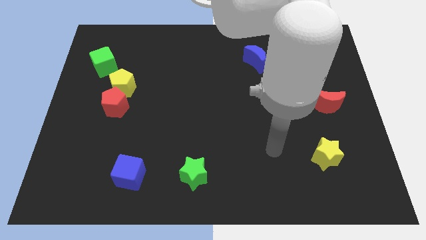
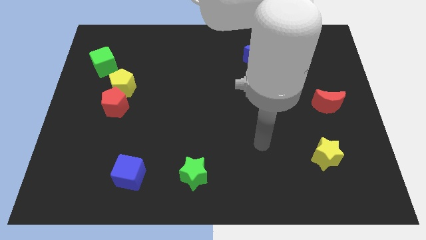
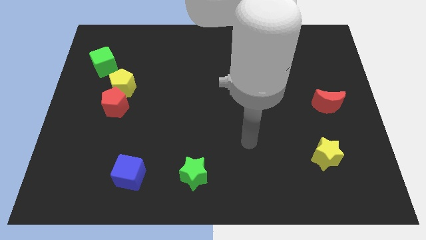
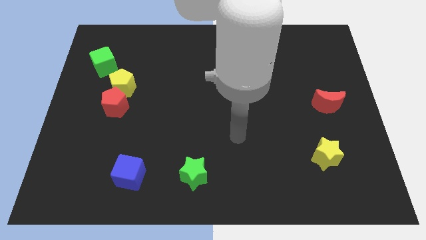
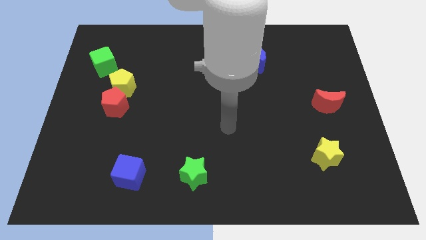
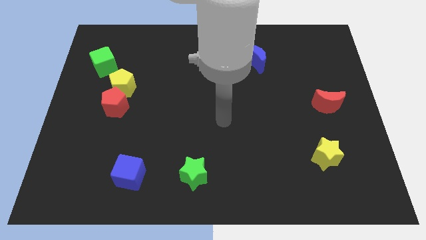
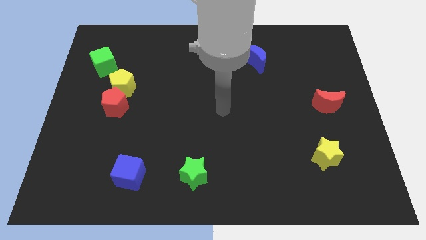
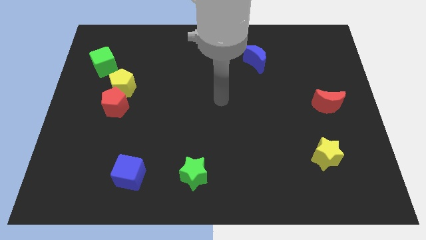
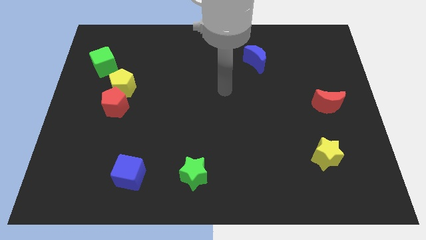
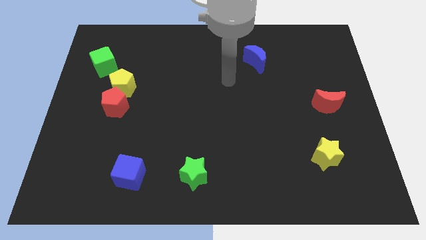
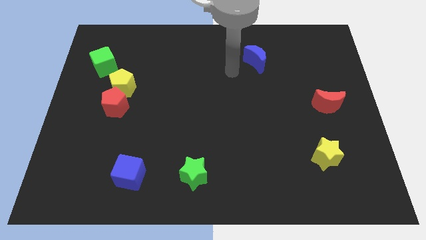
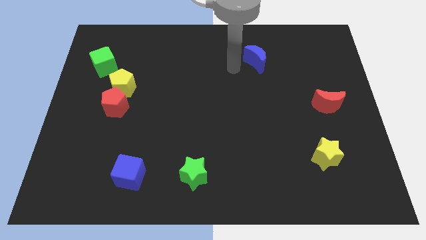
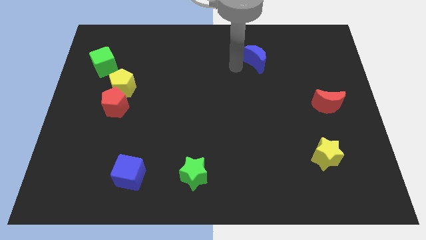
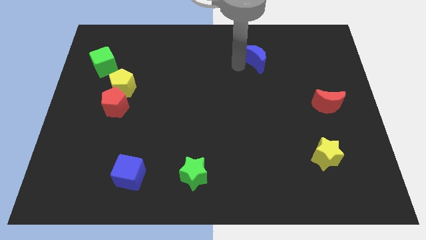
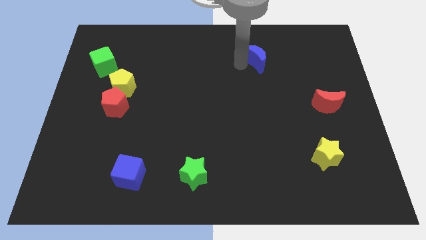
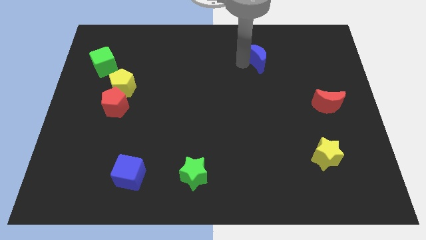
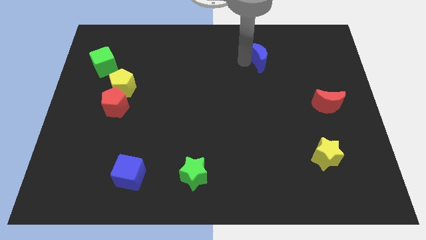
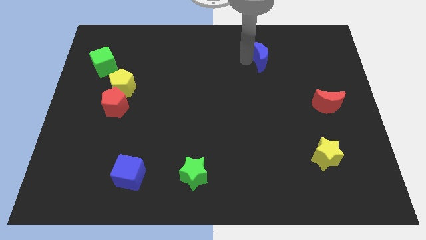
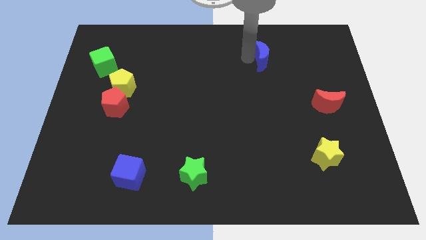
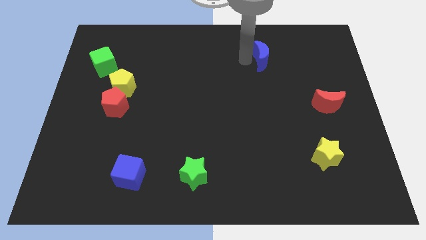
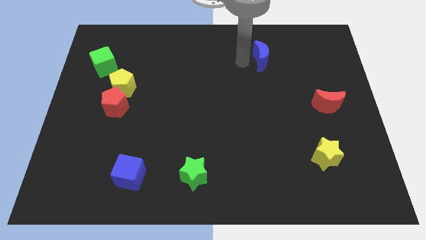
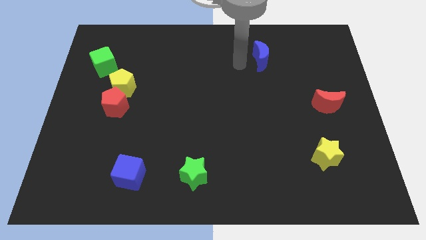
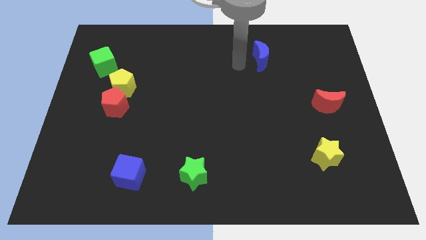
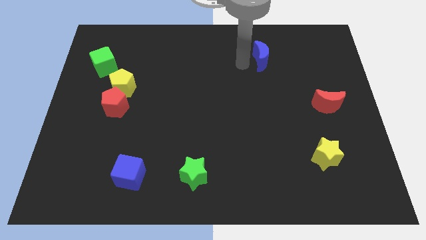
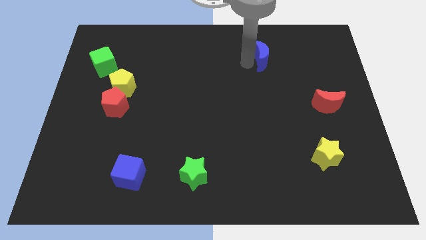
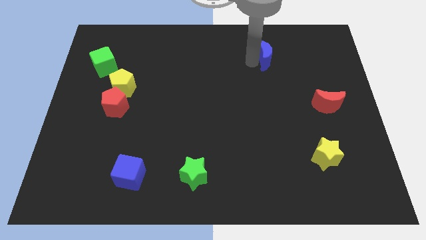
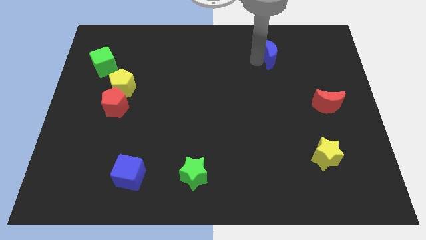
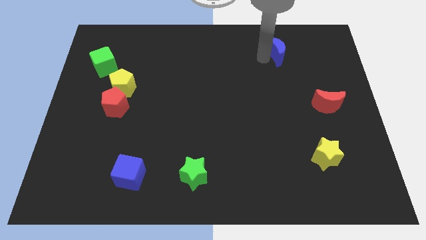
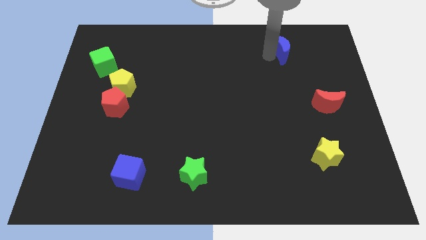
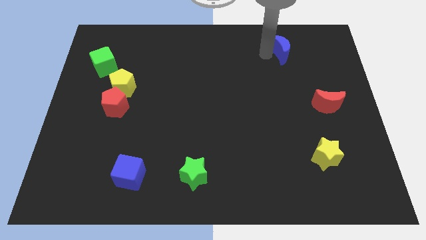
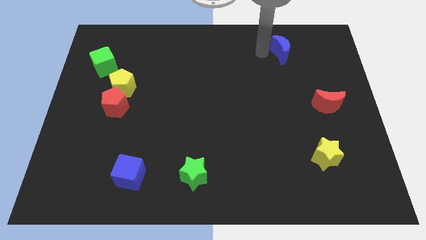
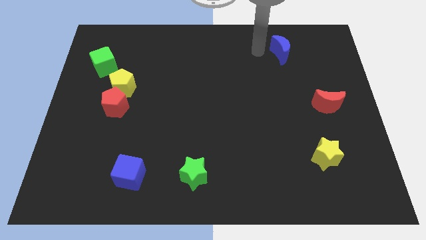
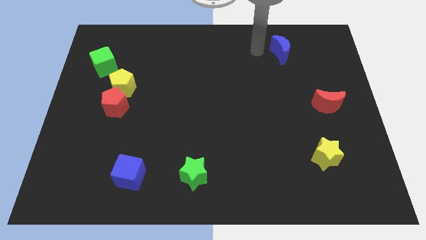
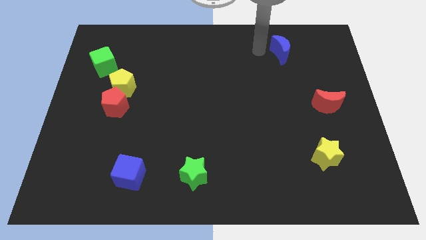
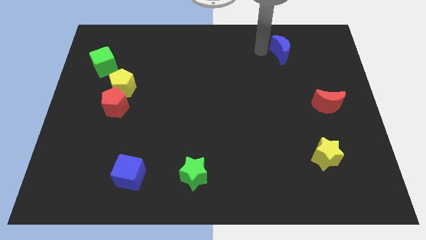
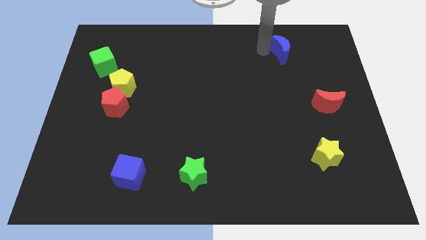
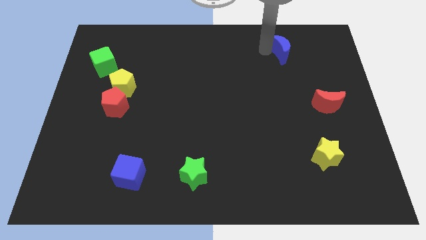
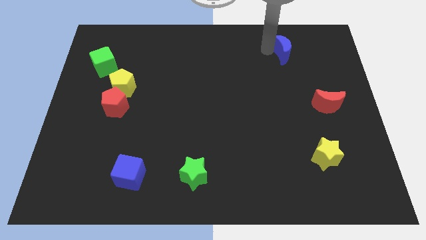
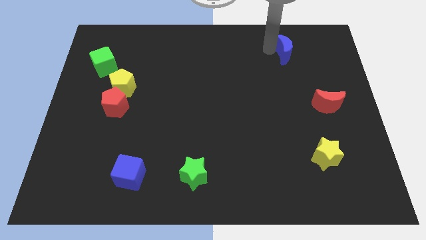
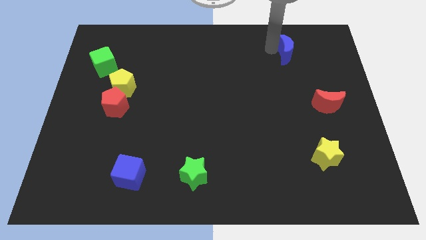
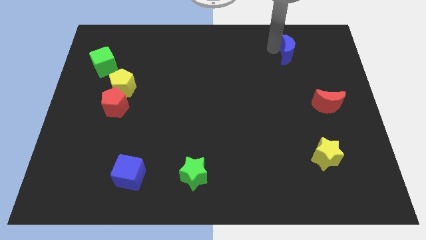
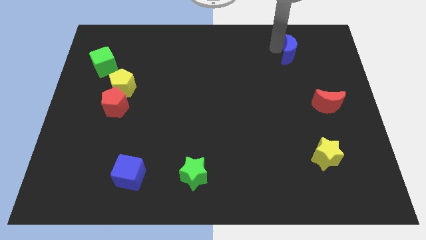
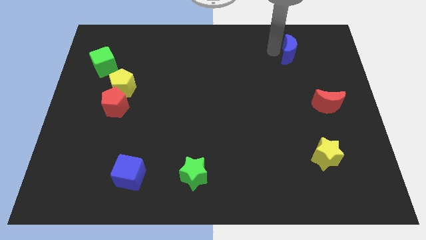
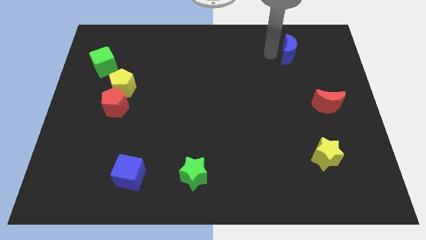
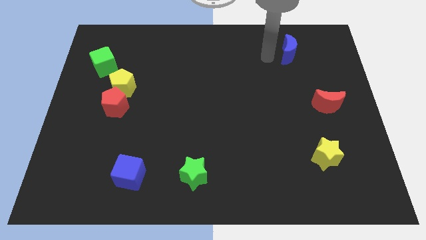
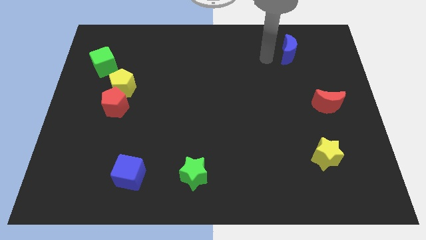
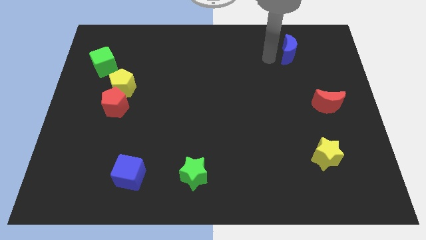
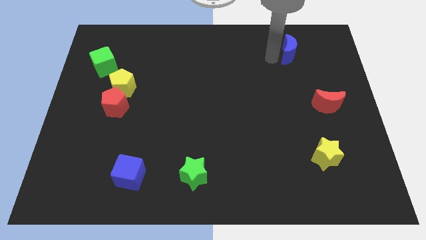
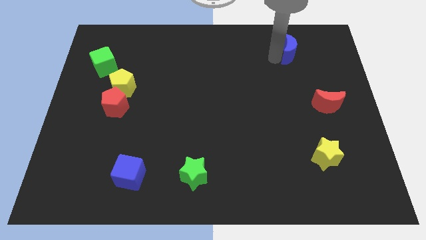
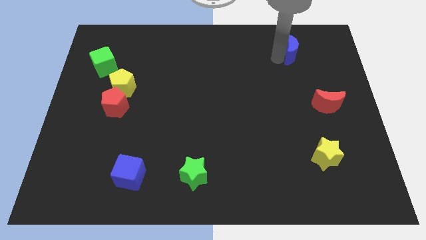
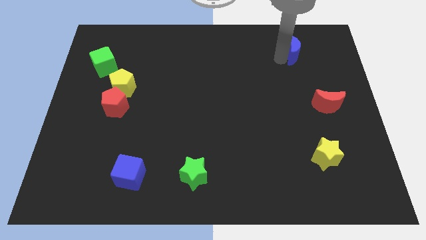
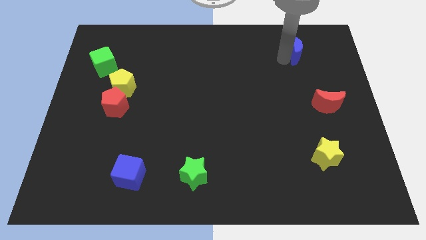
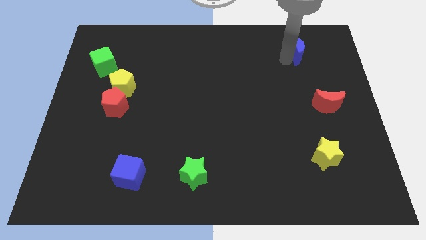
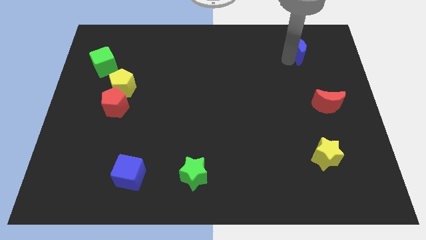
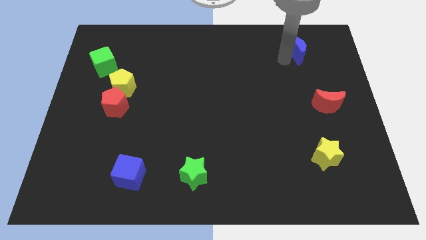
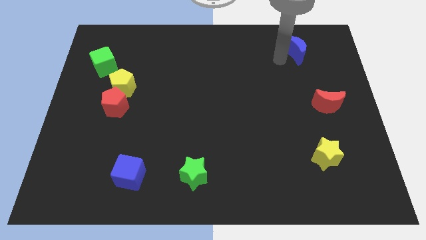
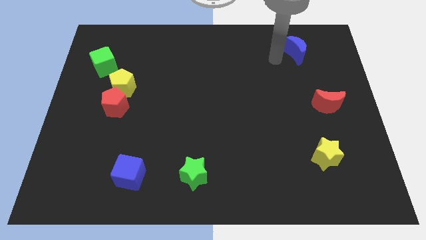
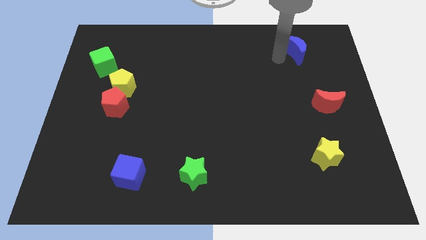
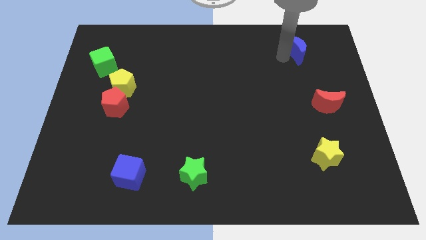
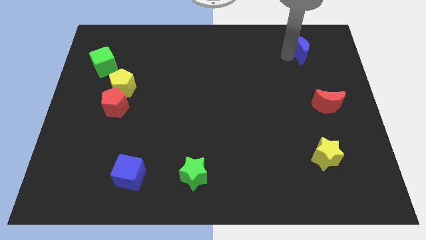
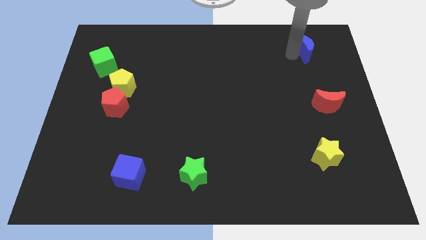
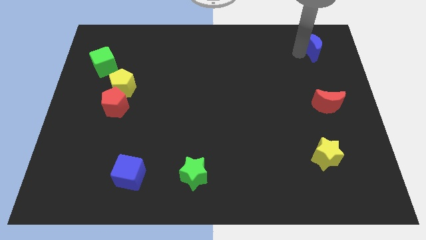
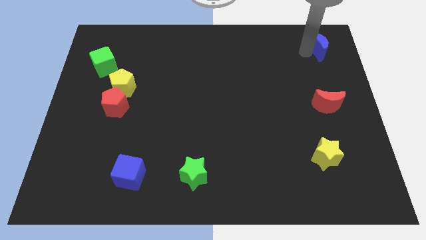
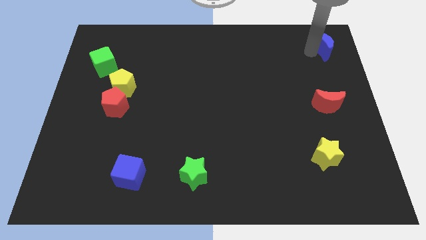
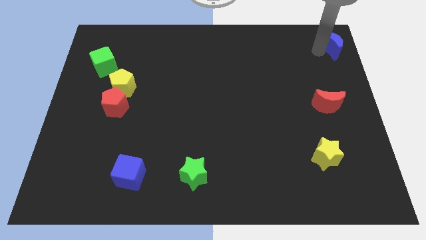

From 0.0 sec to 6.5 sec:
put the blue moon to the upper right corner
